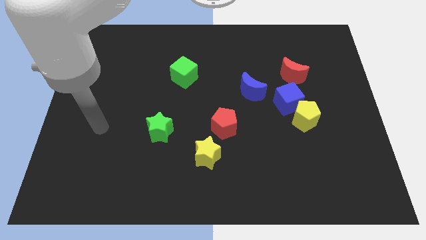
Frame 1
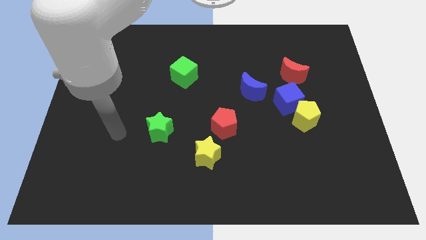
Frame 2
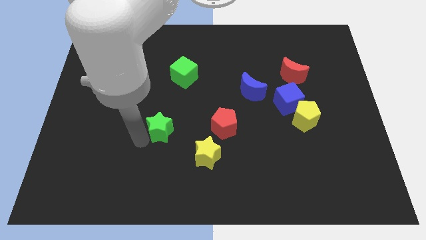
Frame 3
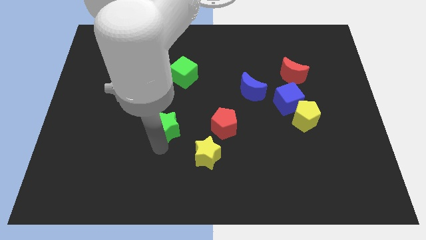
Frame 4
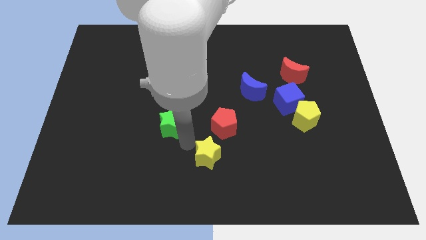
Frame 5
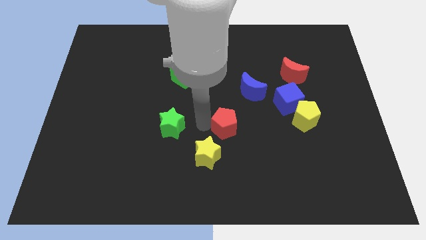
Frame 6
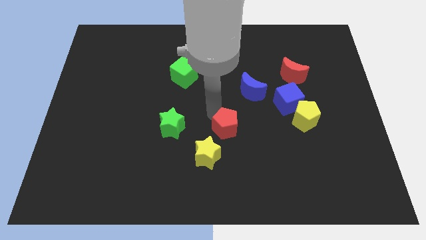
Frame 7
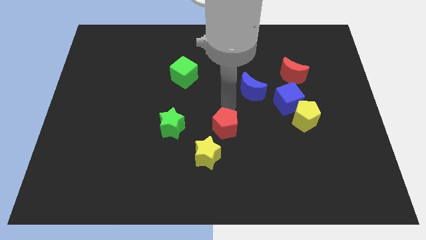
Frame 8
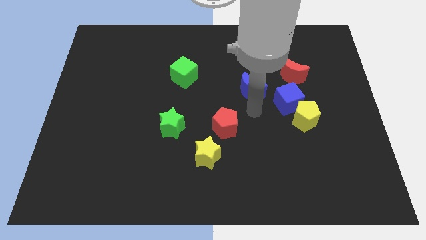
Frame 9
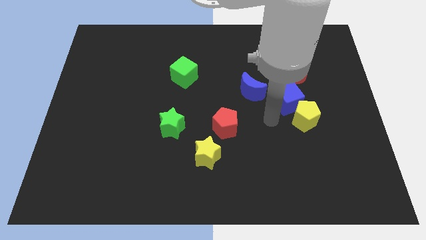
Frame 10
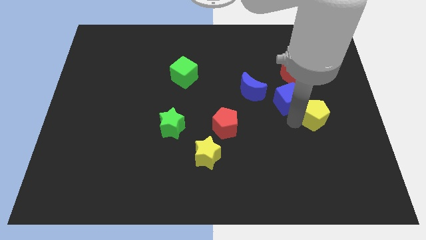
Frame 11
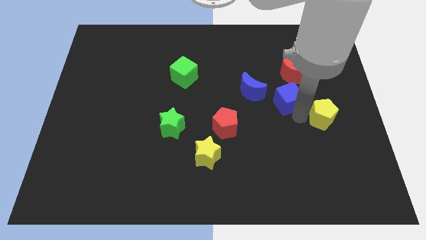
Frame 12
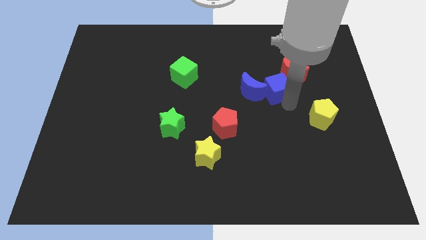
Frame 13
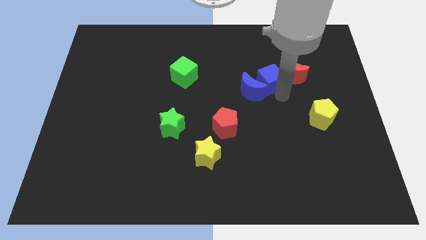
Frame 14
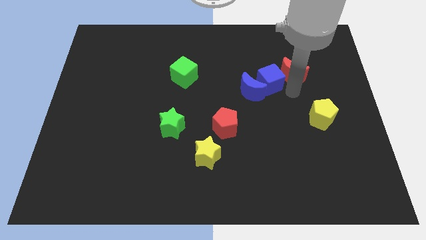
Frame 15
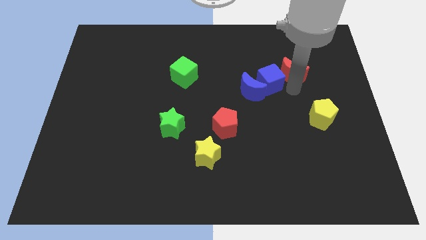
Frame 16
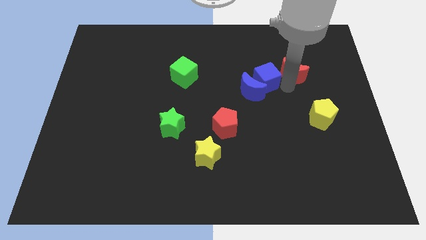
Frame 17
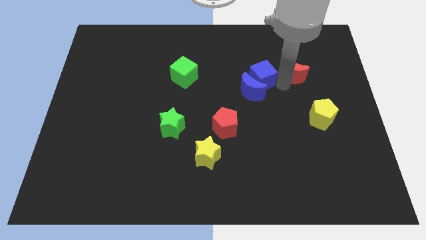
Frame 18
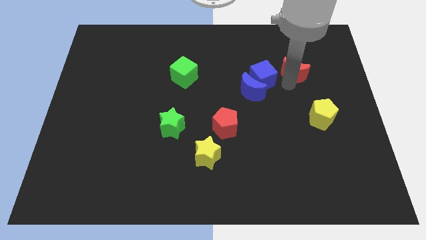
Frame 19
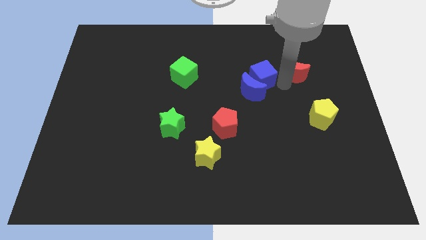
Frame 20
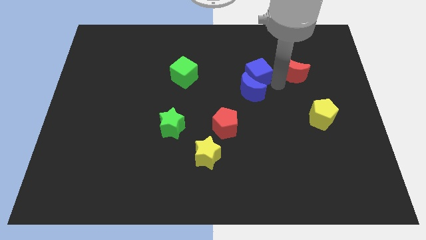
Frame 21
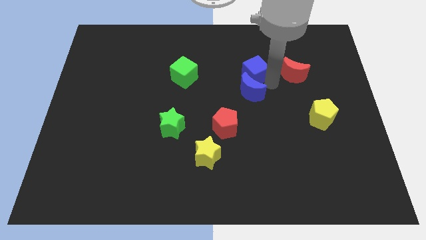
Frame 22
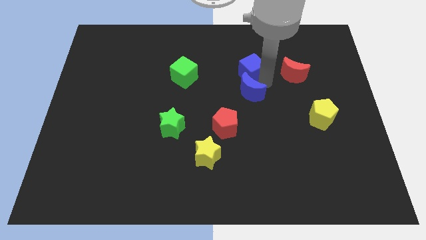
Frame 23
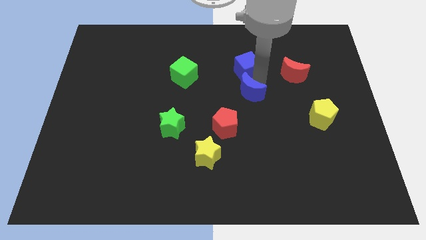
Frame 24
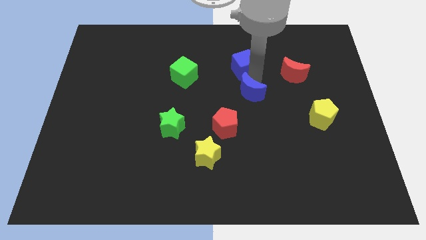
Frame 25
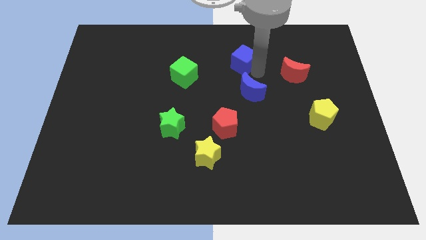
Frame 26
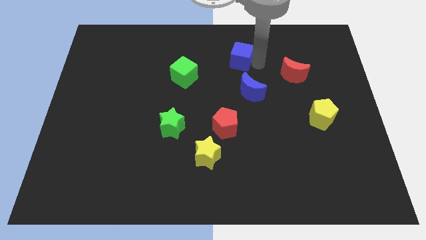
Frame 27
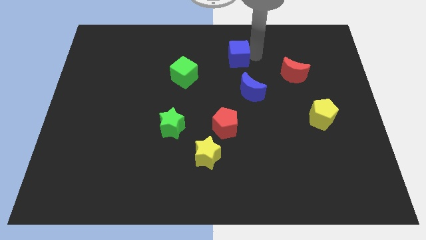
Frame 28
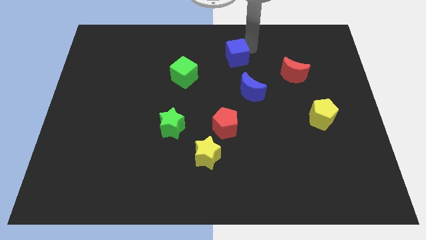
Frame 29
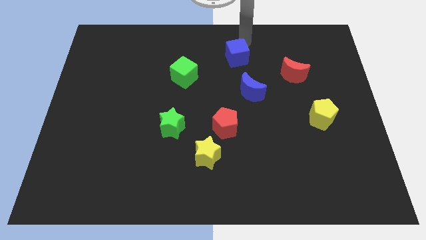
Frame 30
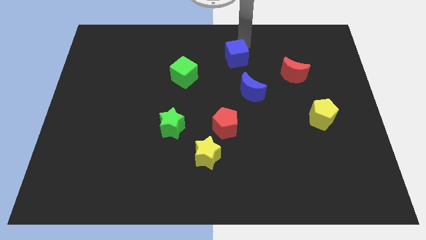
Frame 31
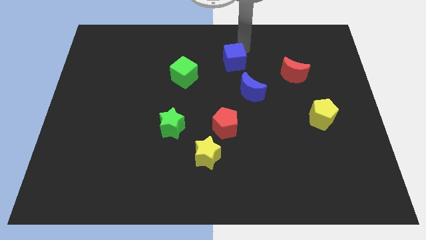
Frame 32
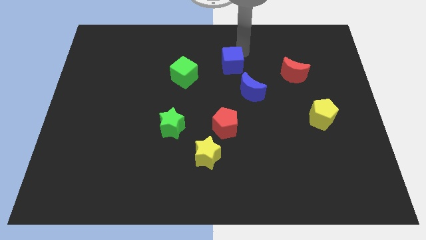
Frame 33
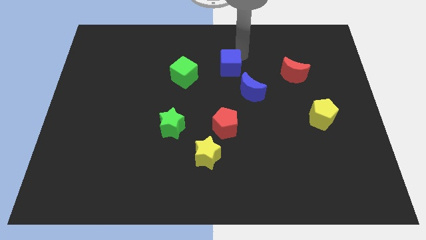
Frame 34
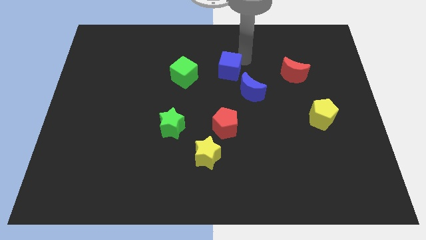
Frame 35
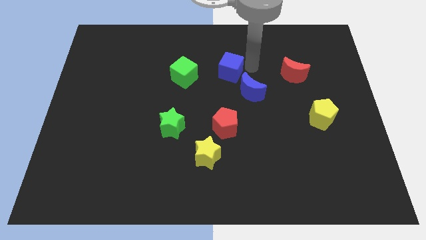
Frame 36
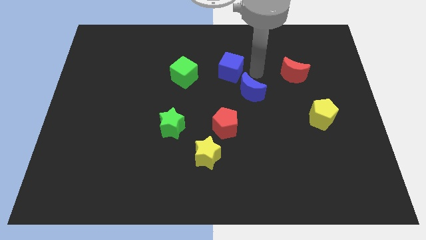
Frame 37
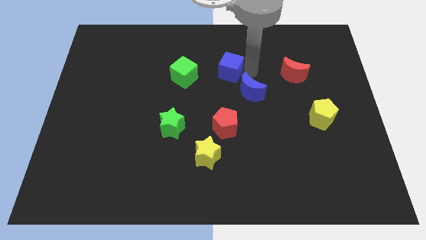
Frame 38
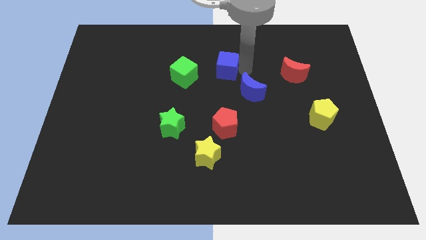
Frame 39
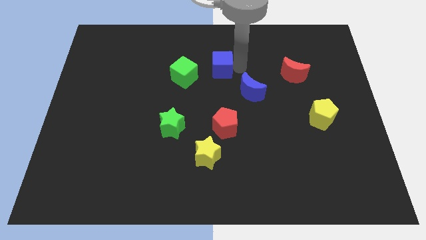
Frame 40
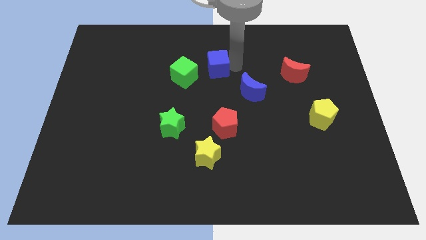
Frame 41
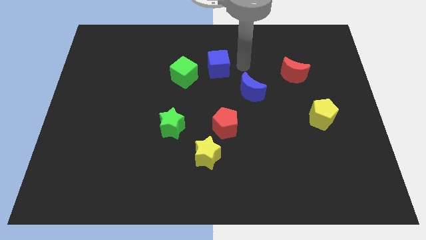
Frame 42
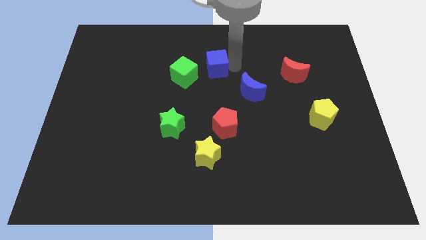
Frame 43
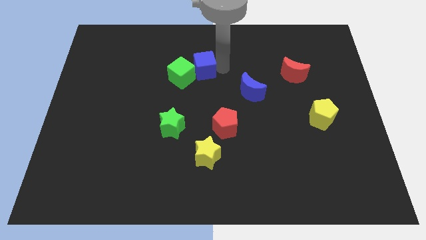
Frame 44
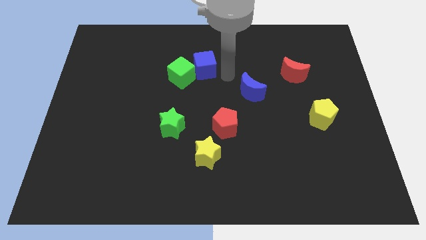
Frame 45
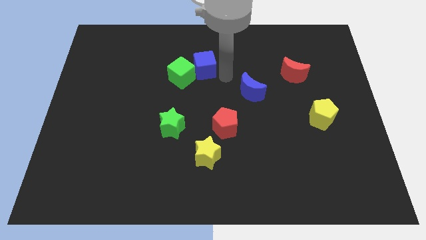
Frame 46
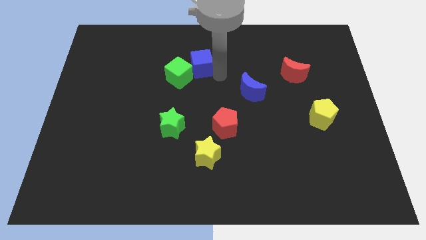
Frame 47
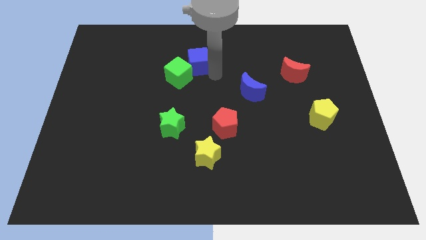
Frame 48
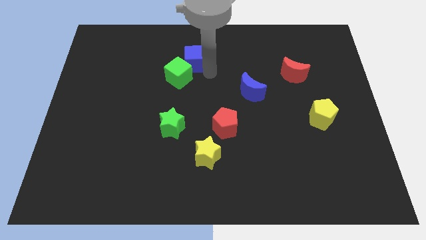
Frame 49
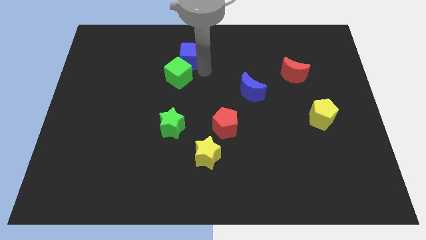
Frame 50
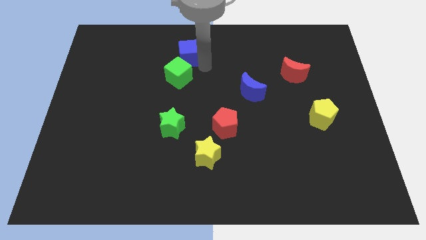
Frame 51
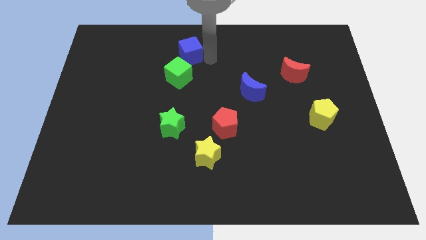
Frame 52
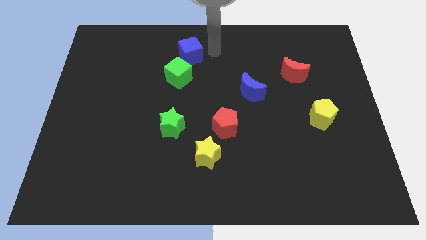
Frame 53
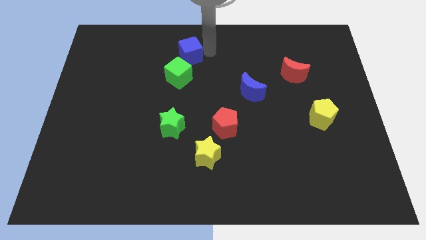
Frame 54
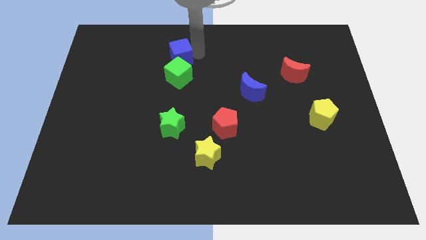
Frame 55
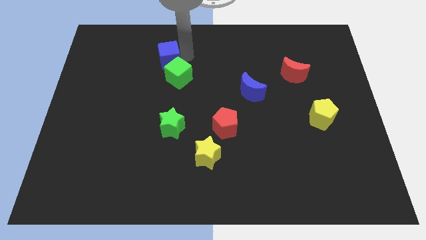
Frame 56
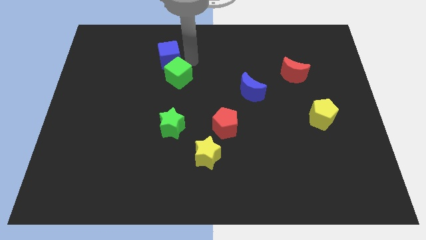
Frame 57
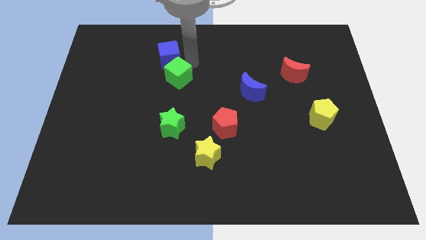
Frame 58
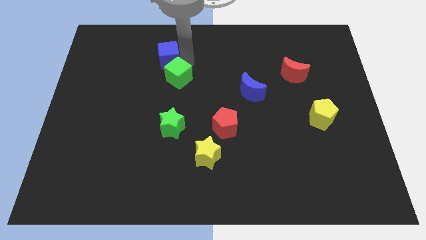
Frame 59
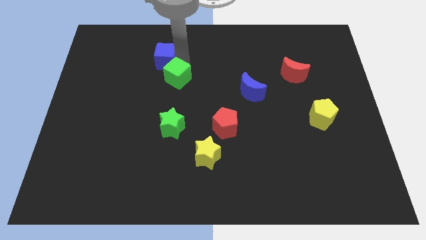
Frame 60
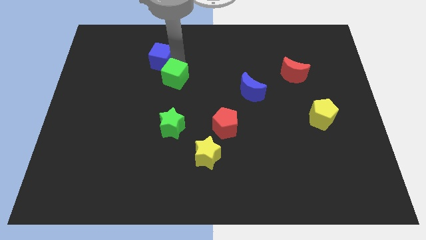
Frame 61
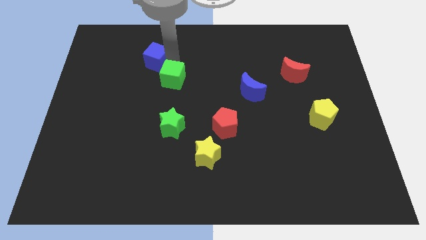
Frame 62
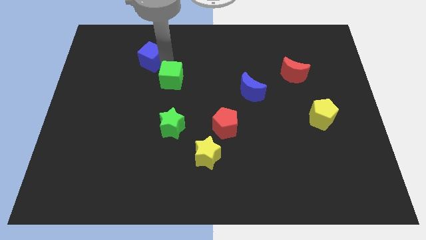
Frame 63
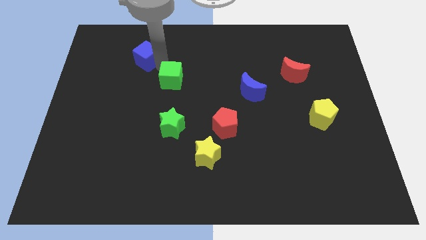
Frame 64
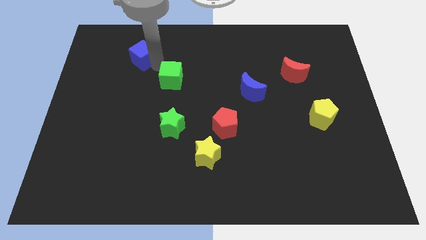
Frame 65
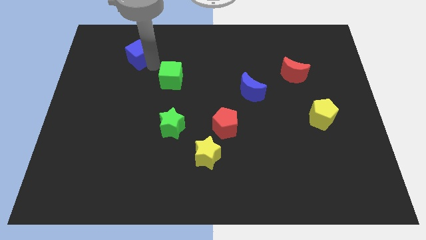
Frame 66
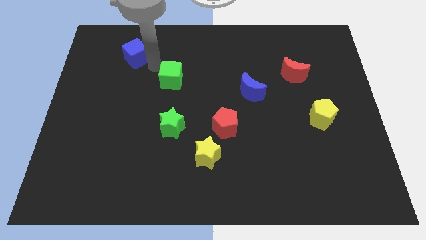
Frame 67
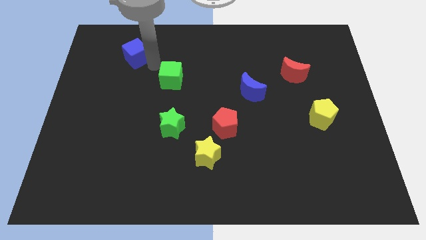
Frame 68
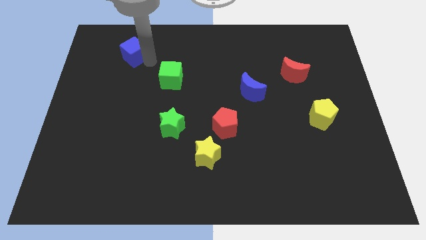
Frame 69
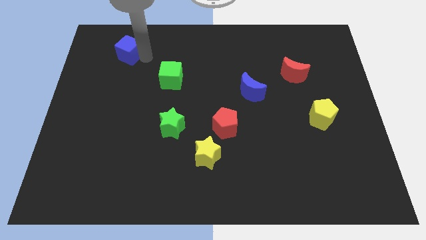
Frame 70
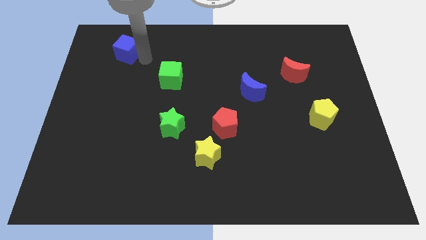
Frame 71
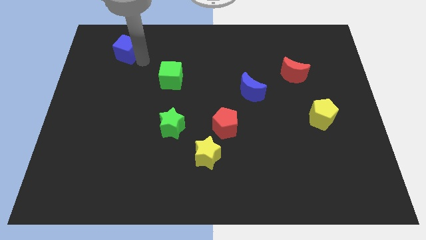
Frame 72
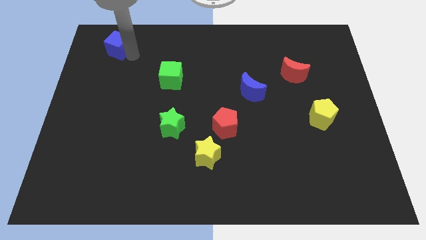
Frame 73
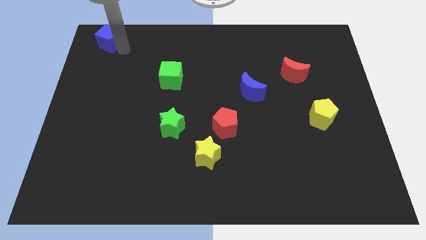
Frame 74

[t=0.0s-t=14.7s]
put the blue cube to the top left of the board
